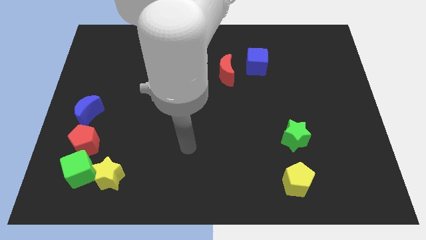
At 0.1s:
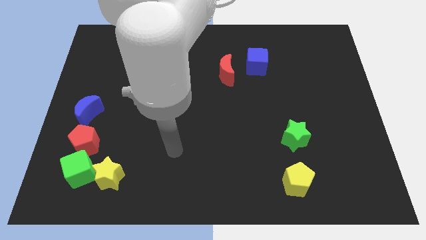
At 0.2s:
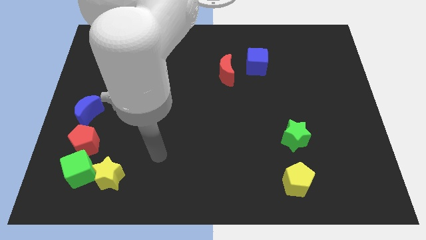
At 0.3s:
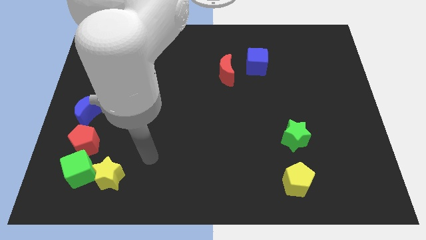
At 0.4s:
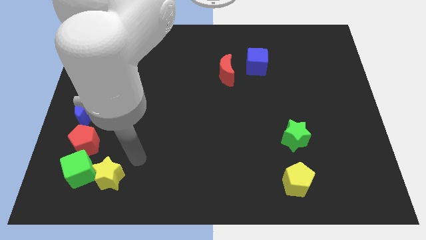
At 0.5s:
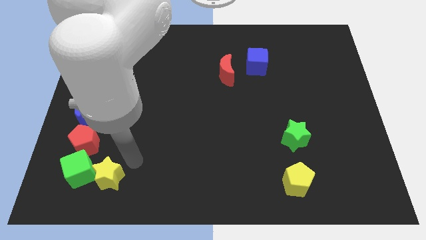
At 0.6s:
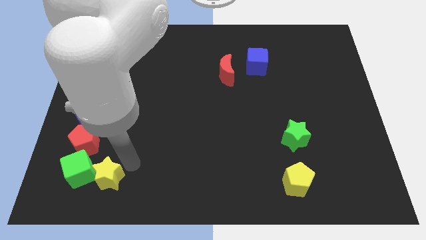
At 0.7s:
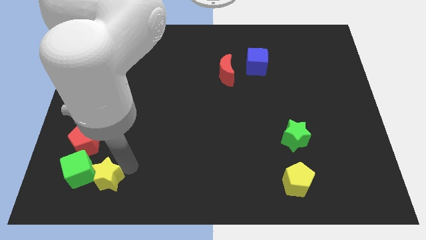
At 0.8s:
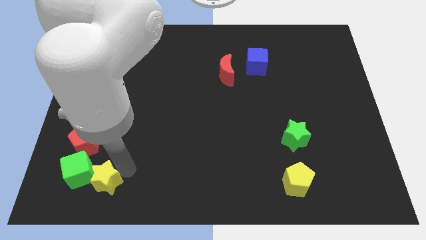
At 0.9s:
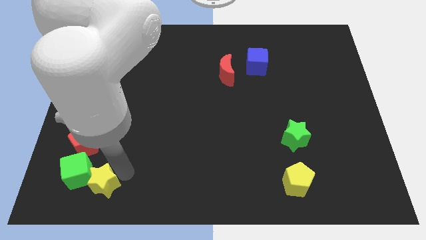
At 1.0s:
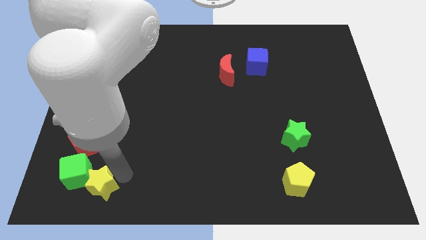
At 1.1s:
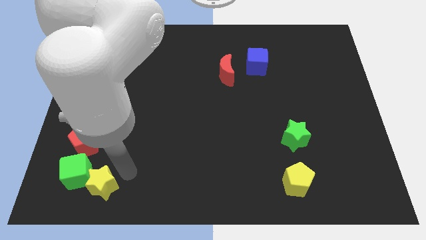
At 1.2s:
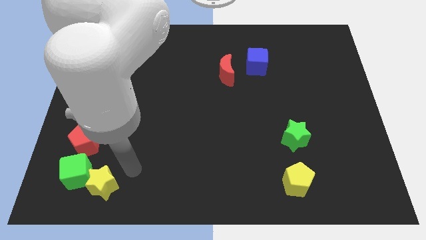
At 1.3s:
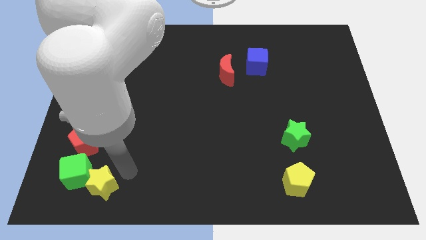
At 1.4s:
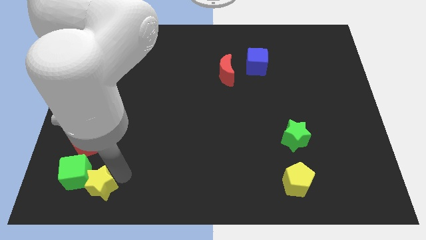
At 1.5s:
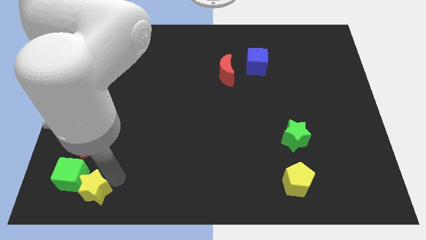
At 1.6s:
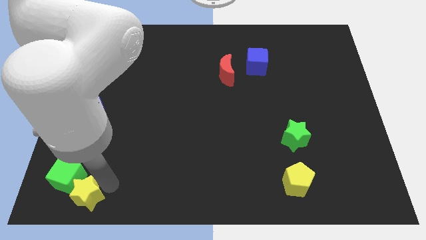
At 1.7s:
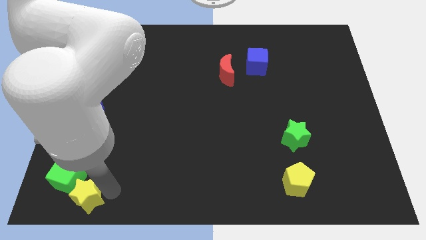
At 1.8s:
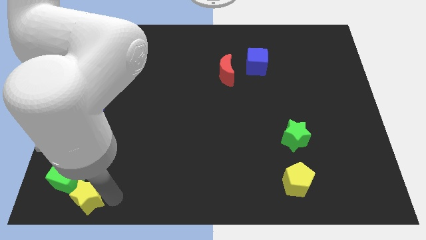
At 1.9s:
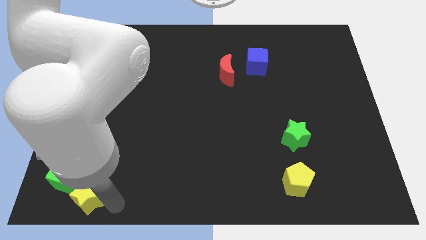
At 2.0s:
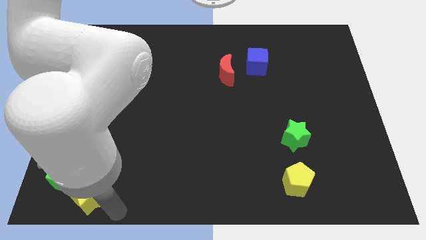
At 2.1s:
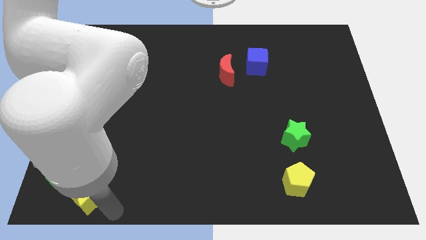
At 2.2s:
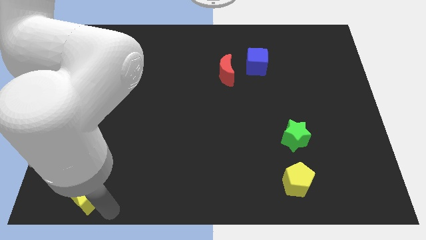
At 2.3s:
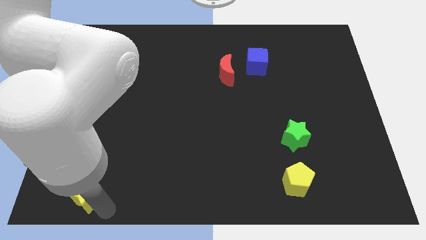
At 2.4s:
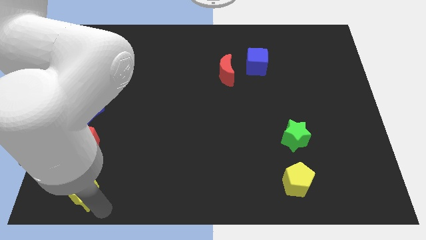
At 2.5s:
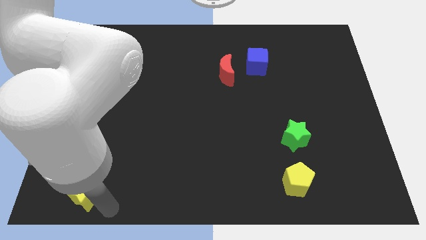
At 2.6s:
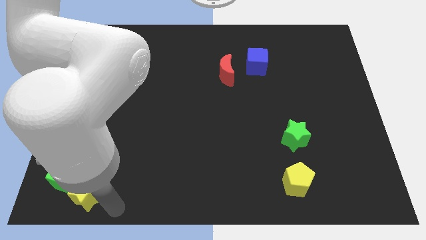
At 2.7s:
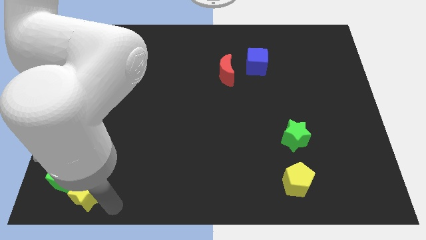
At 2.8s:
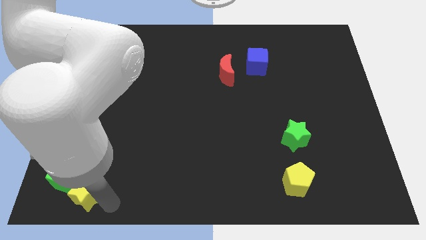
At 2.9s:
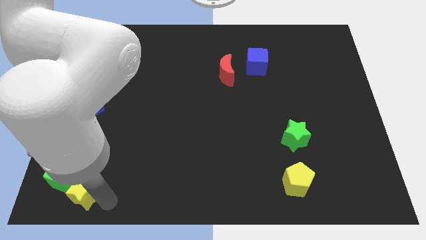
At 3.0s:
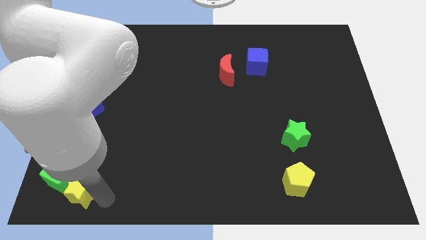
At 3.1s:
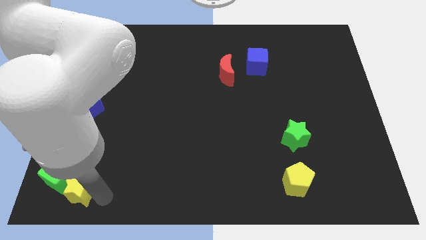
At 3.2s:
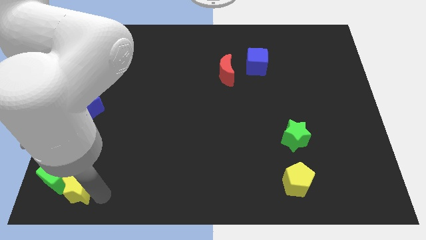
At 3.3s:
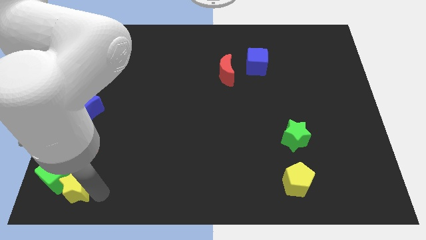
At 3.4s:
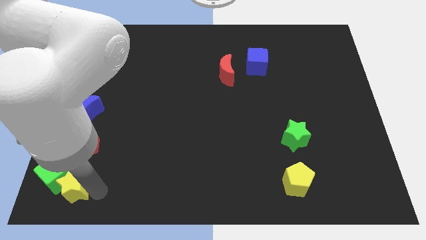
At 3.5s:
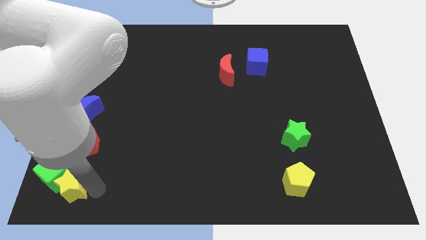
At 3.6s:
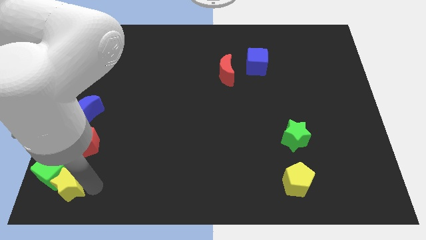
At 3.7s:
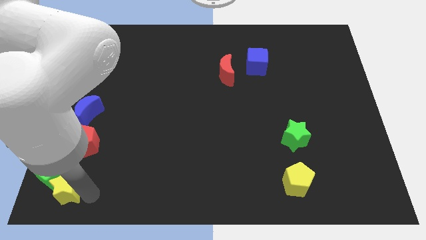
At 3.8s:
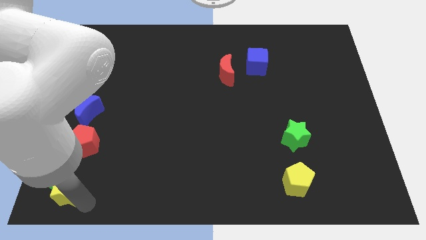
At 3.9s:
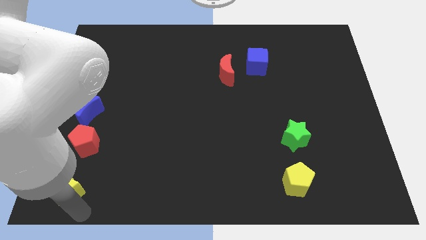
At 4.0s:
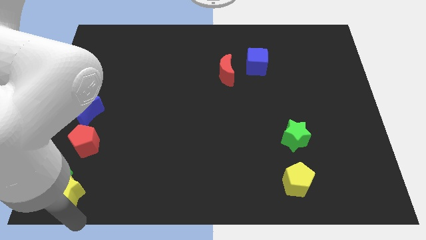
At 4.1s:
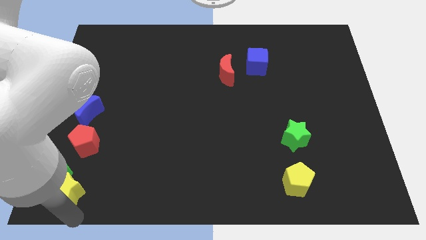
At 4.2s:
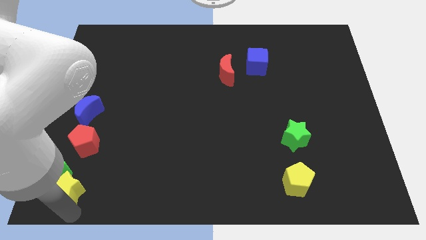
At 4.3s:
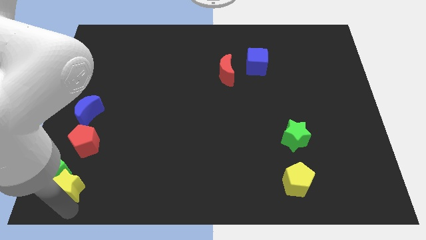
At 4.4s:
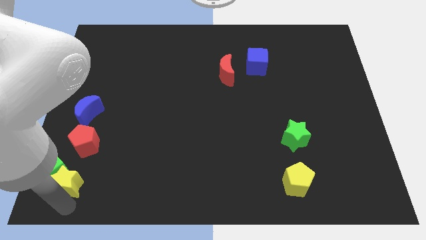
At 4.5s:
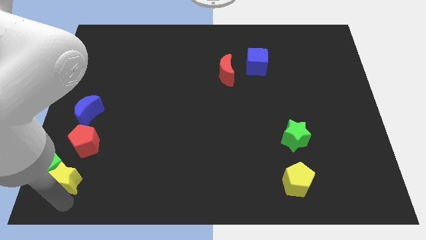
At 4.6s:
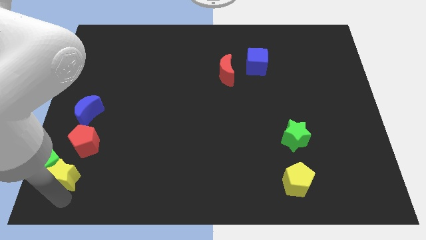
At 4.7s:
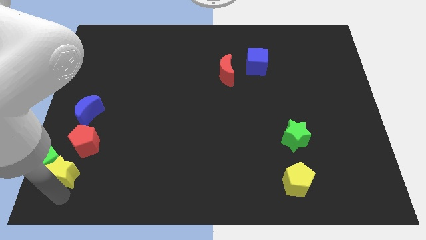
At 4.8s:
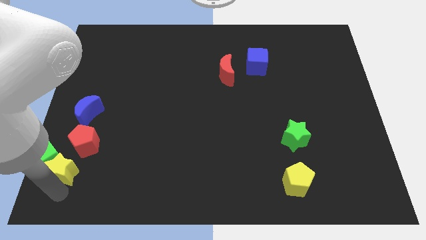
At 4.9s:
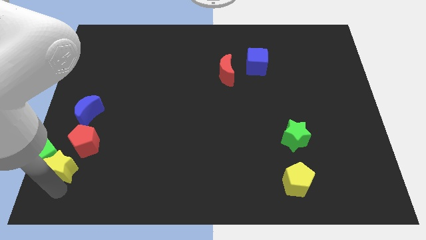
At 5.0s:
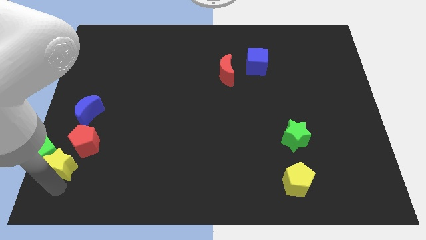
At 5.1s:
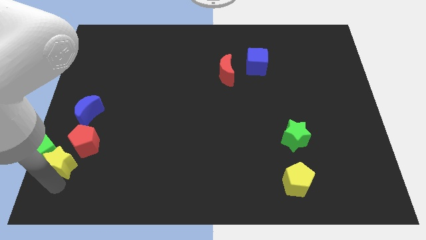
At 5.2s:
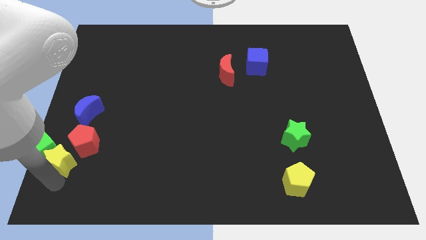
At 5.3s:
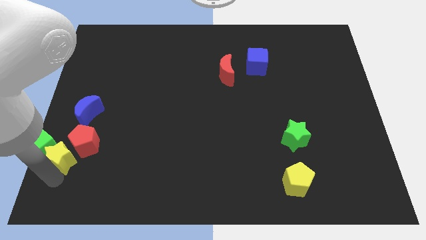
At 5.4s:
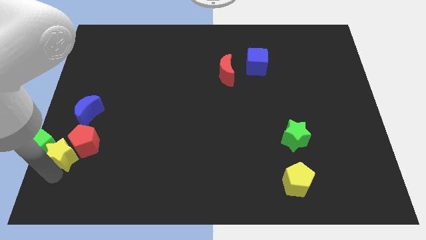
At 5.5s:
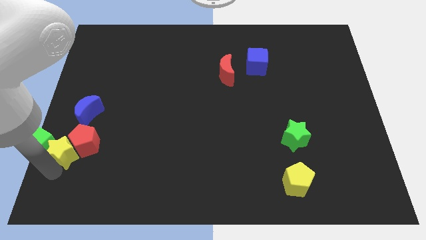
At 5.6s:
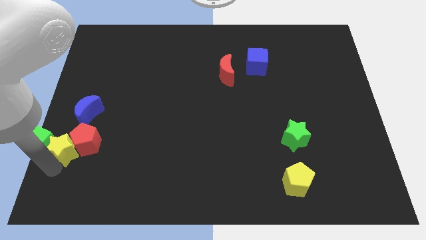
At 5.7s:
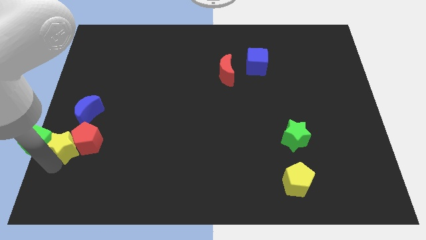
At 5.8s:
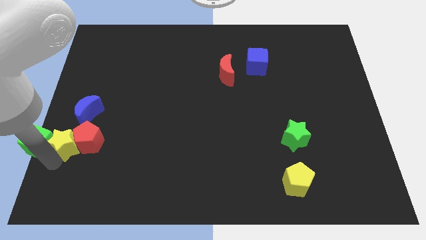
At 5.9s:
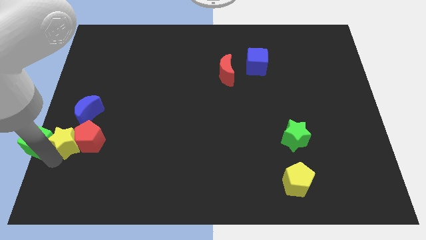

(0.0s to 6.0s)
push the yellow star to the left side

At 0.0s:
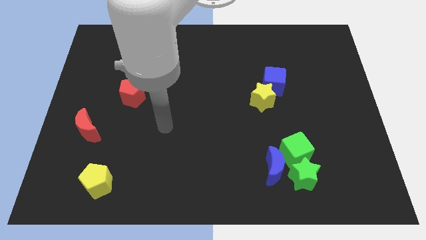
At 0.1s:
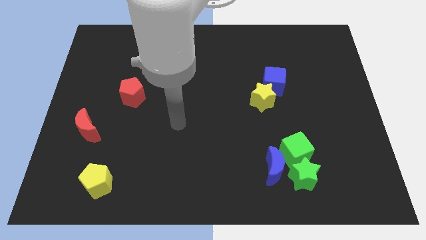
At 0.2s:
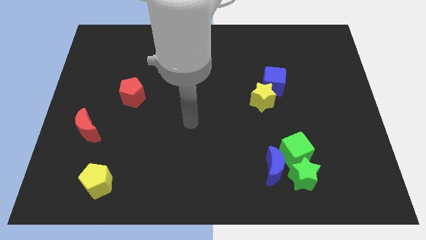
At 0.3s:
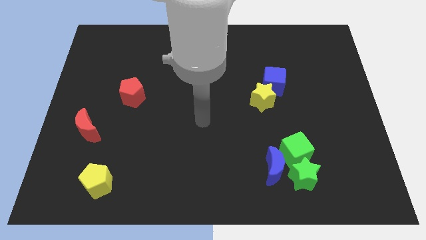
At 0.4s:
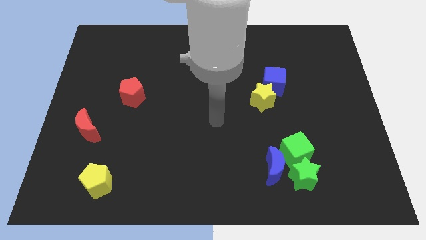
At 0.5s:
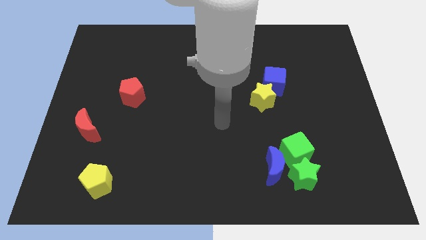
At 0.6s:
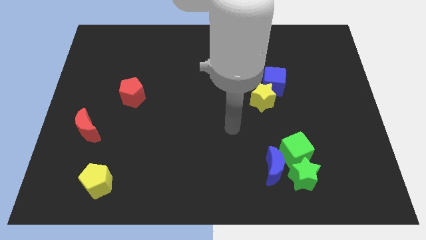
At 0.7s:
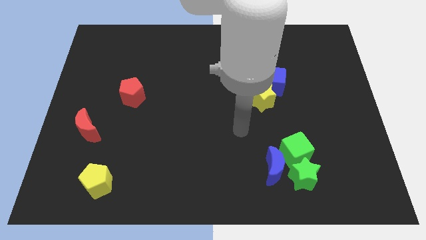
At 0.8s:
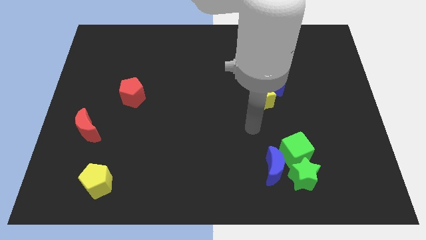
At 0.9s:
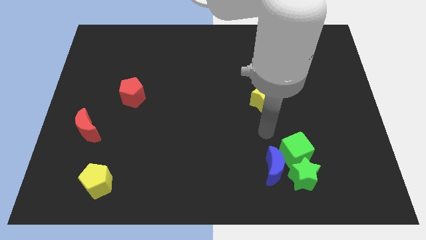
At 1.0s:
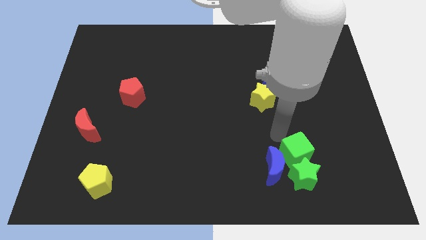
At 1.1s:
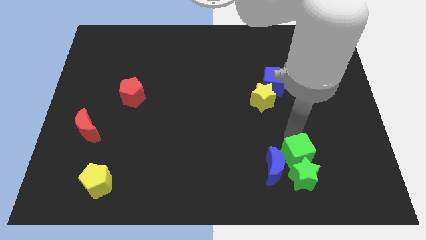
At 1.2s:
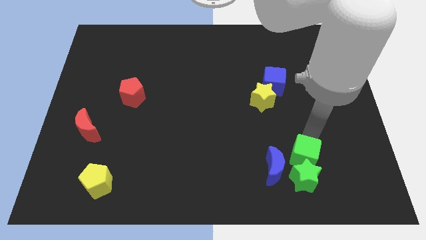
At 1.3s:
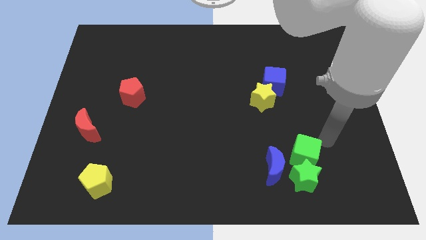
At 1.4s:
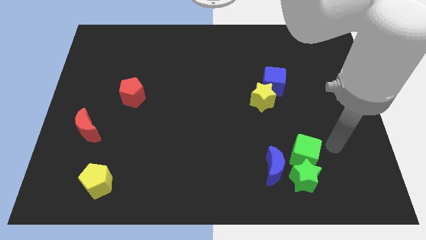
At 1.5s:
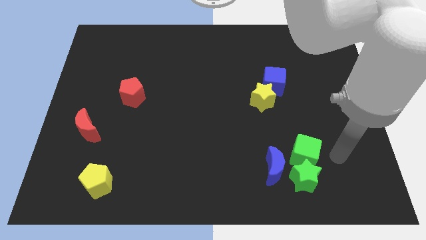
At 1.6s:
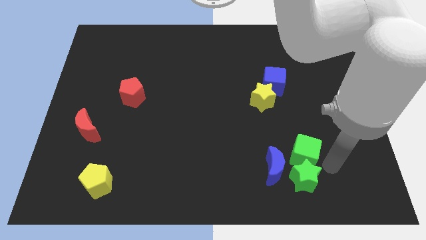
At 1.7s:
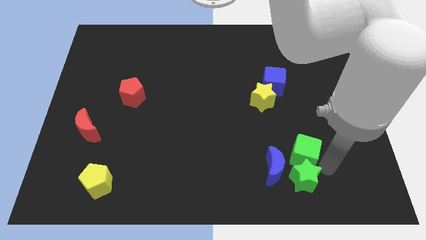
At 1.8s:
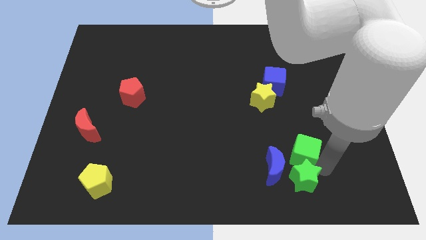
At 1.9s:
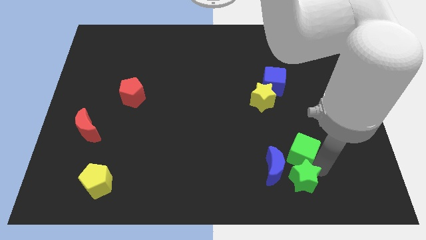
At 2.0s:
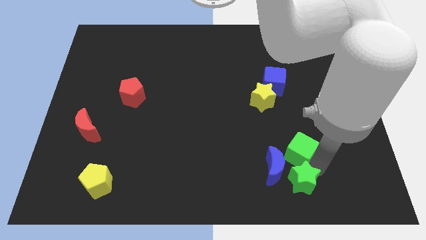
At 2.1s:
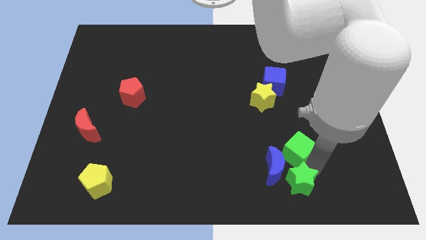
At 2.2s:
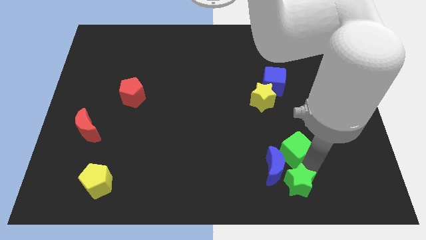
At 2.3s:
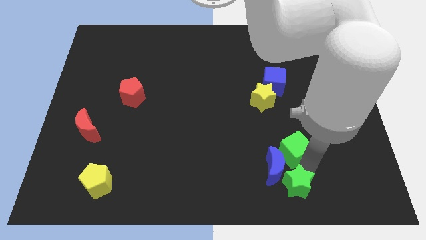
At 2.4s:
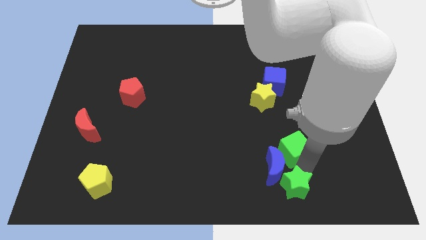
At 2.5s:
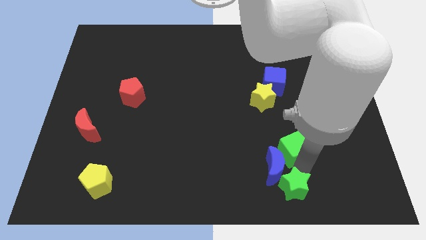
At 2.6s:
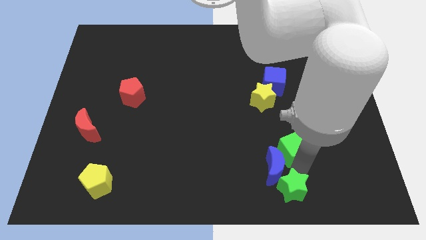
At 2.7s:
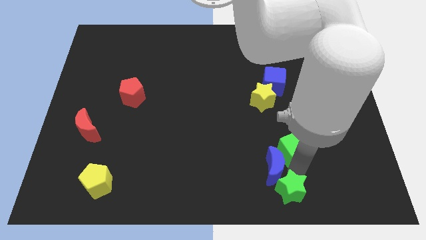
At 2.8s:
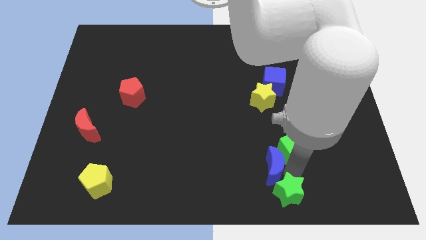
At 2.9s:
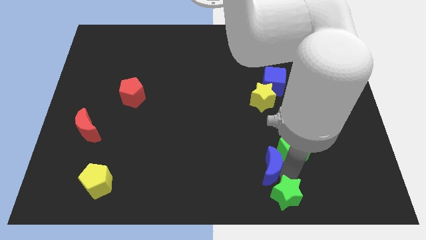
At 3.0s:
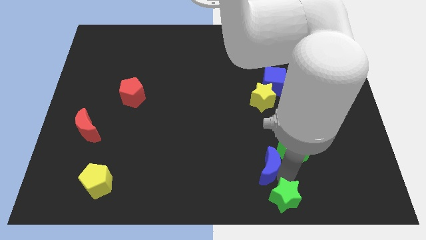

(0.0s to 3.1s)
push the green star to the bottom side
